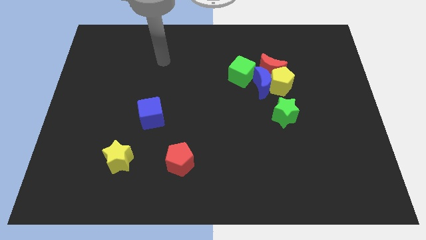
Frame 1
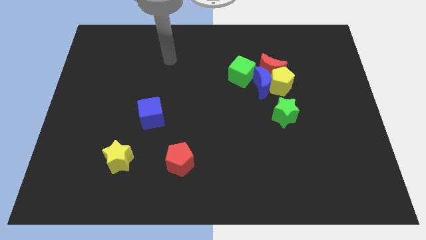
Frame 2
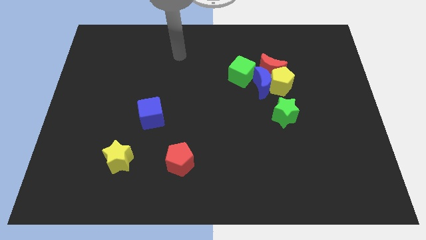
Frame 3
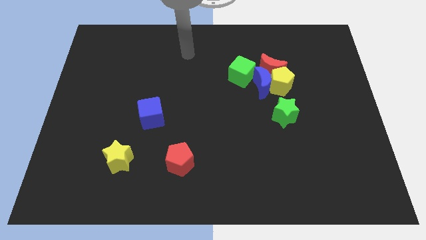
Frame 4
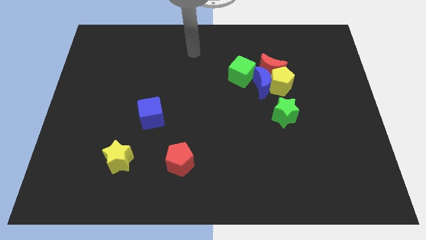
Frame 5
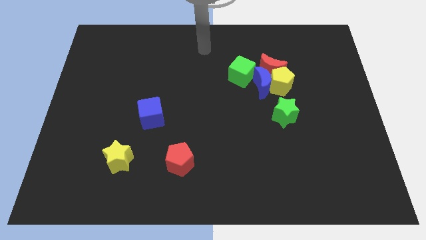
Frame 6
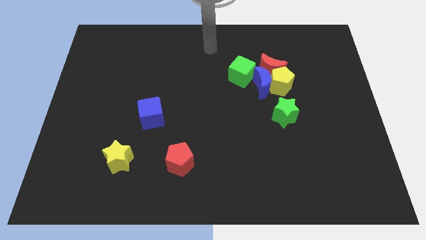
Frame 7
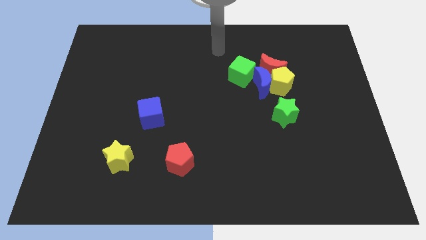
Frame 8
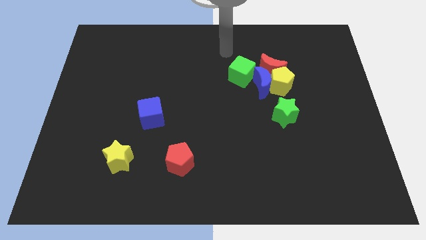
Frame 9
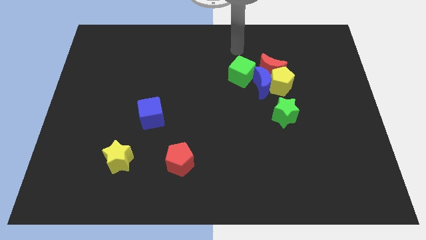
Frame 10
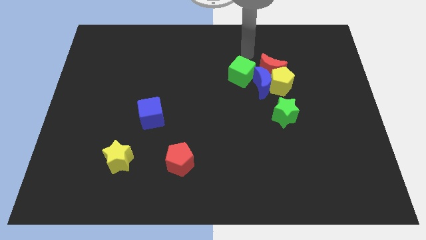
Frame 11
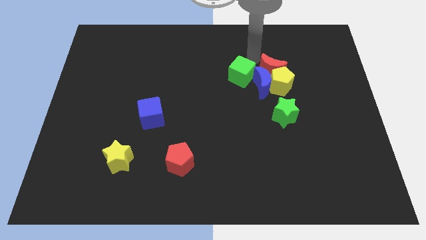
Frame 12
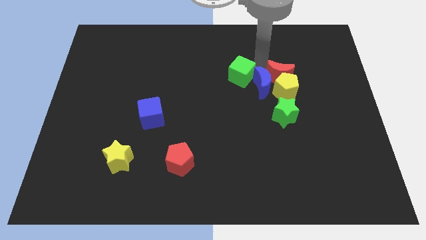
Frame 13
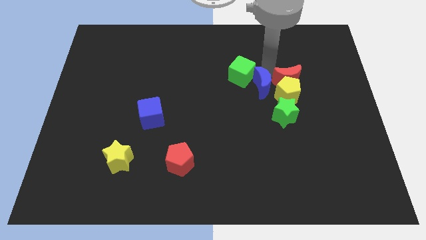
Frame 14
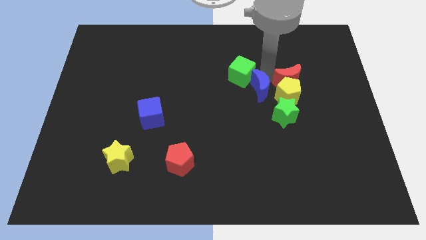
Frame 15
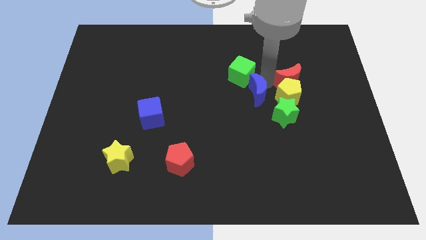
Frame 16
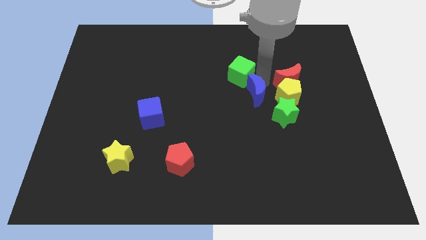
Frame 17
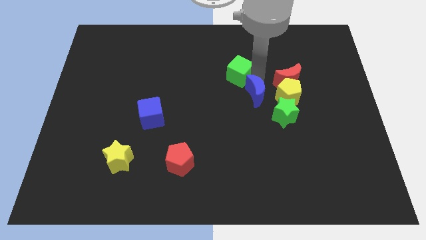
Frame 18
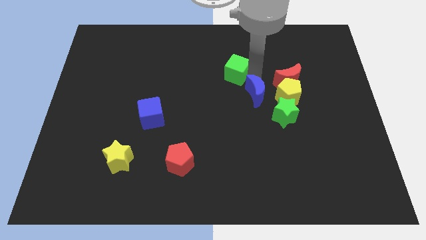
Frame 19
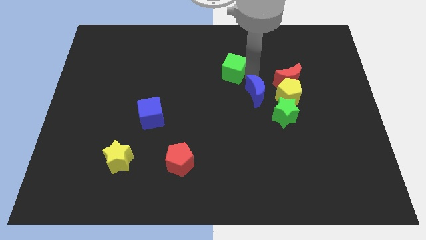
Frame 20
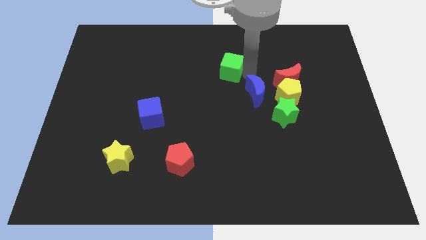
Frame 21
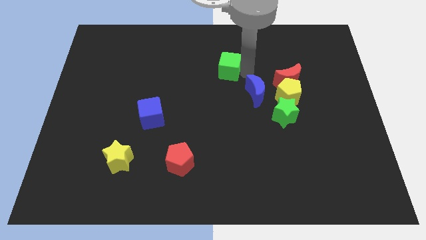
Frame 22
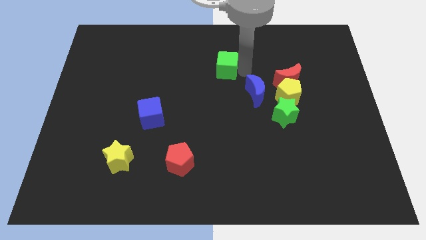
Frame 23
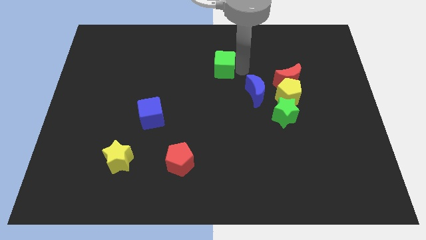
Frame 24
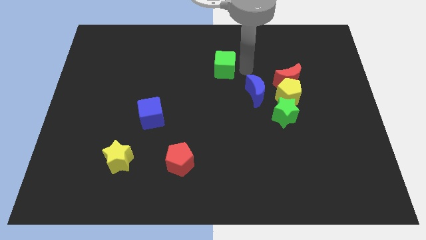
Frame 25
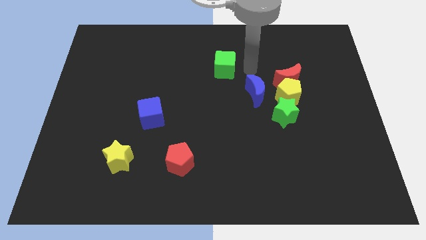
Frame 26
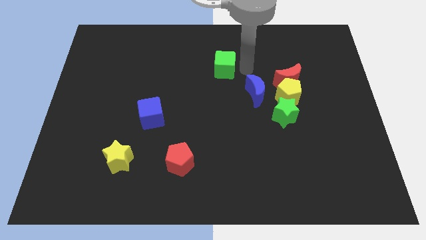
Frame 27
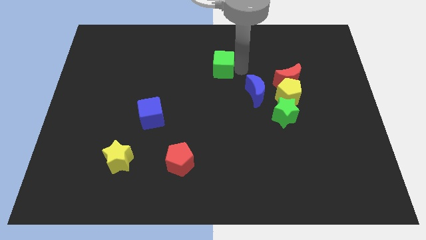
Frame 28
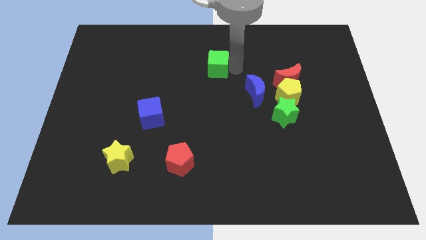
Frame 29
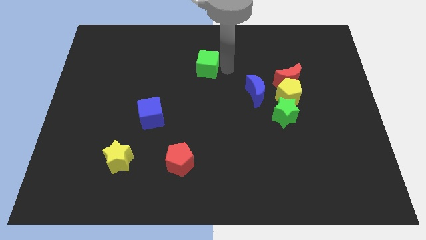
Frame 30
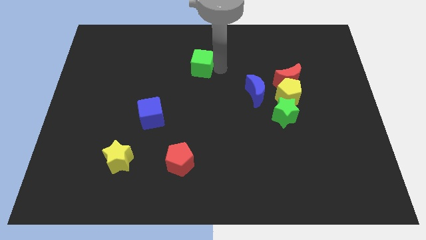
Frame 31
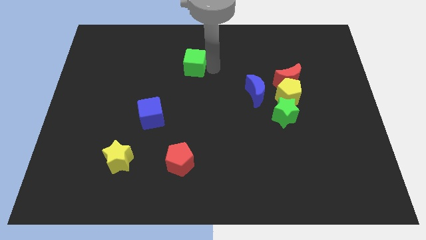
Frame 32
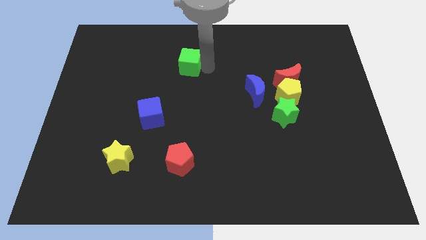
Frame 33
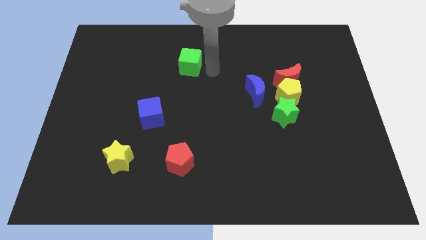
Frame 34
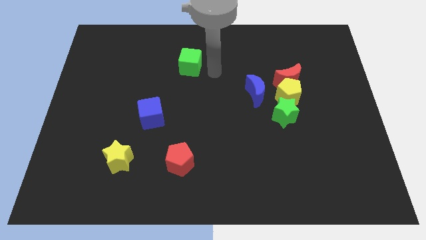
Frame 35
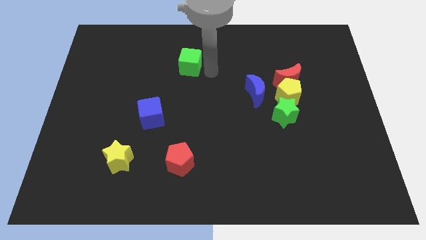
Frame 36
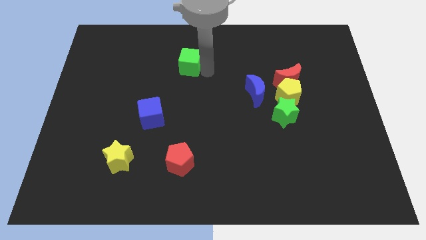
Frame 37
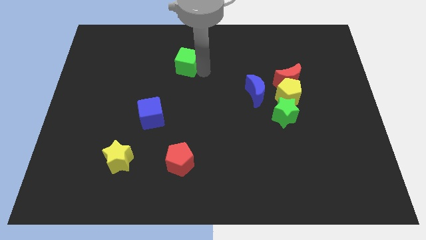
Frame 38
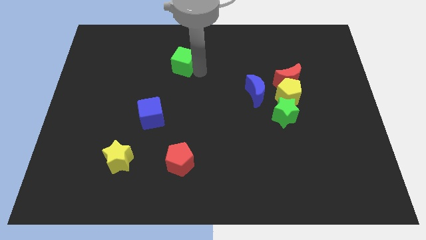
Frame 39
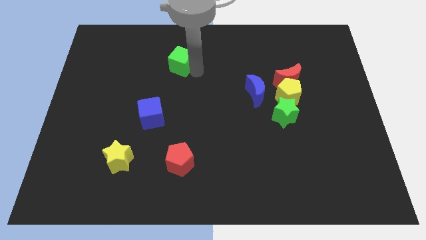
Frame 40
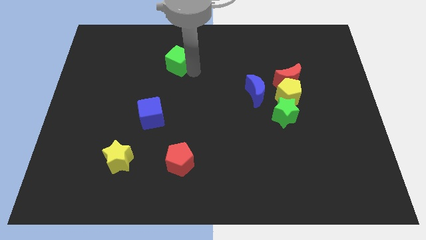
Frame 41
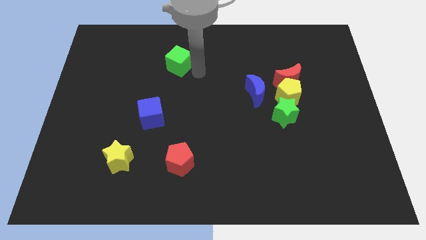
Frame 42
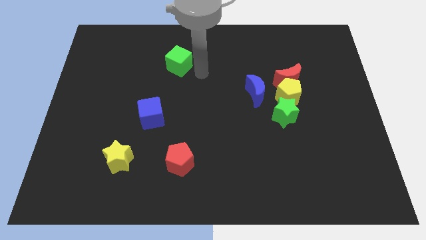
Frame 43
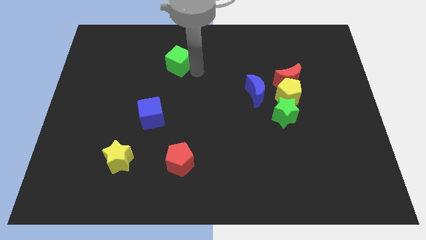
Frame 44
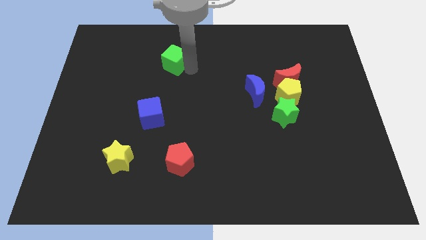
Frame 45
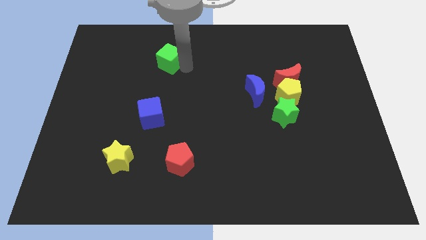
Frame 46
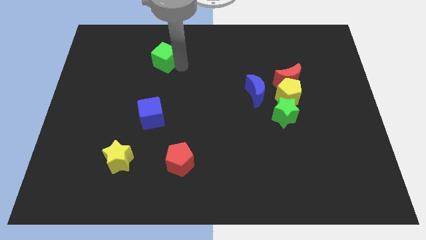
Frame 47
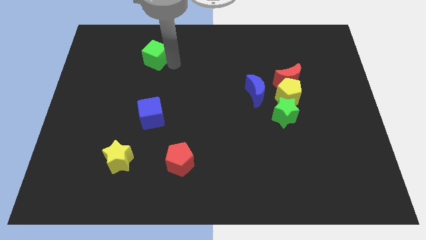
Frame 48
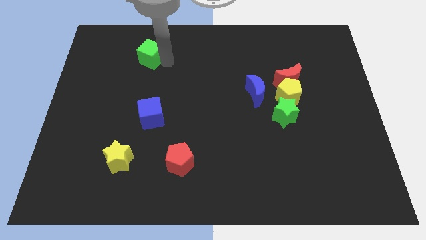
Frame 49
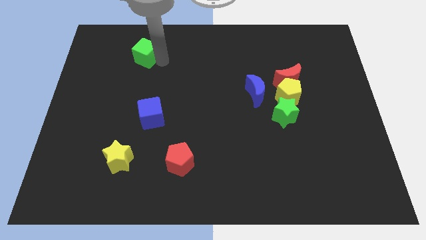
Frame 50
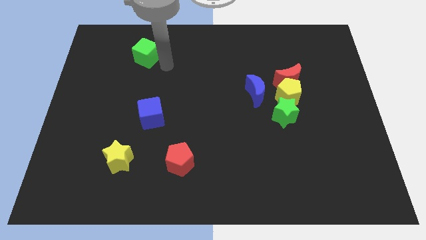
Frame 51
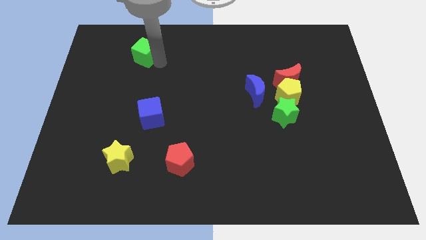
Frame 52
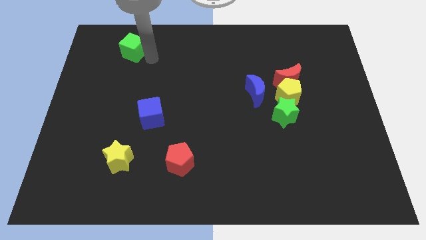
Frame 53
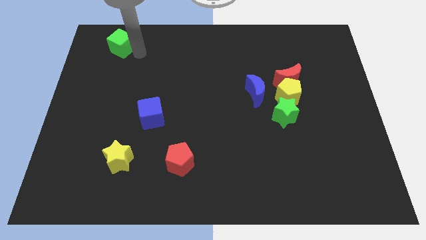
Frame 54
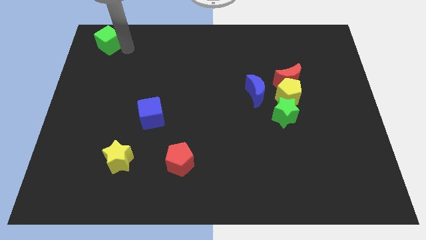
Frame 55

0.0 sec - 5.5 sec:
put the green cube to the top left corner
